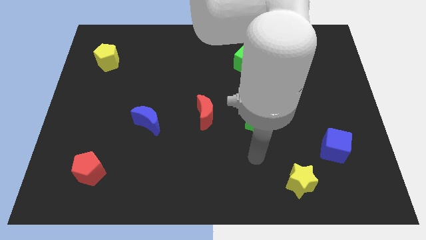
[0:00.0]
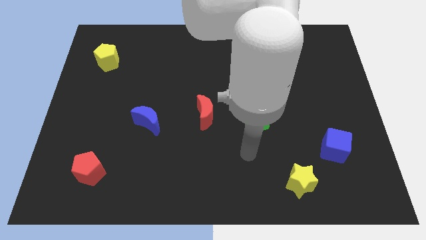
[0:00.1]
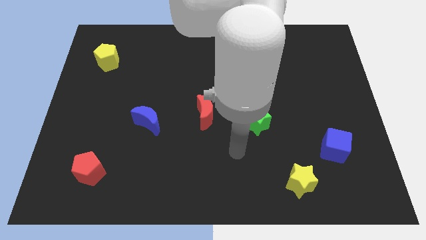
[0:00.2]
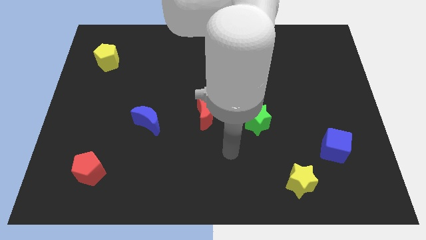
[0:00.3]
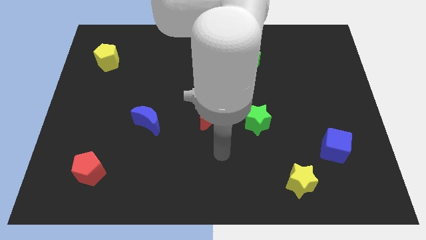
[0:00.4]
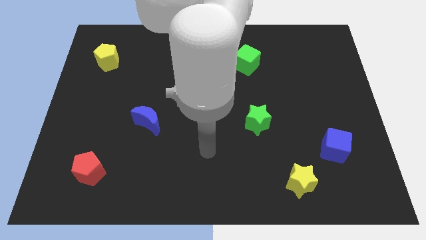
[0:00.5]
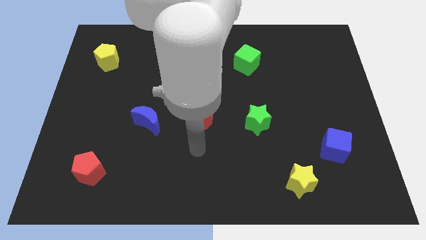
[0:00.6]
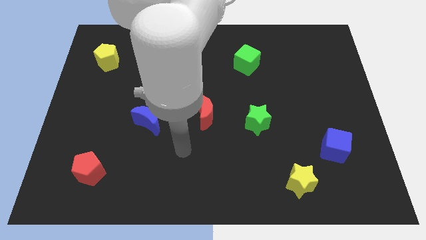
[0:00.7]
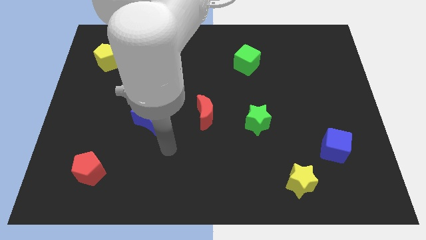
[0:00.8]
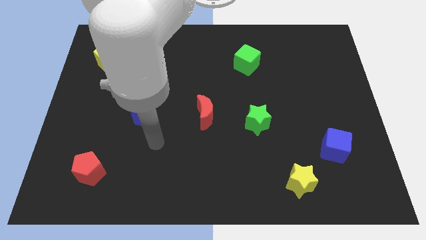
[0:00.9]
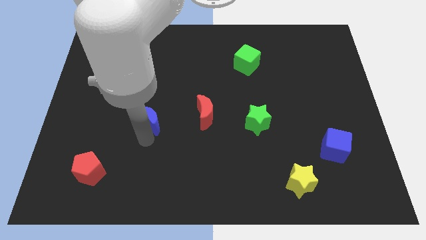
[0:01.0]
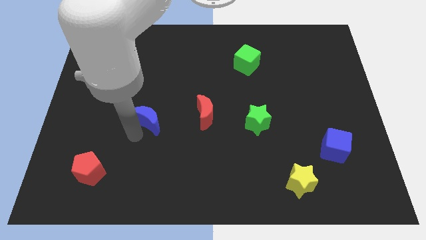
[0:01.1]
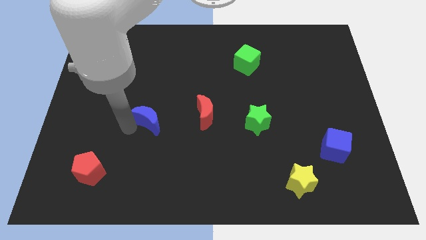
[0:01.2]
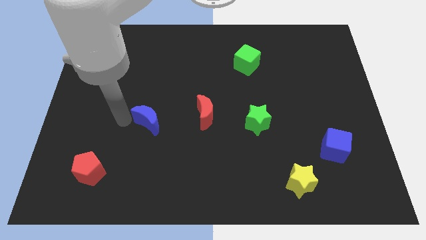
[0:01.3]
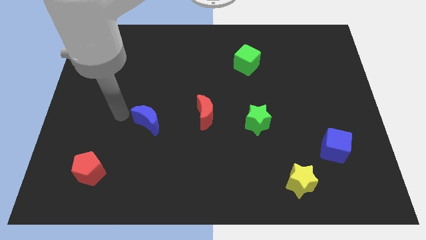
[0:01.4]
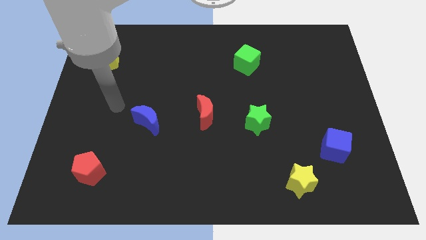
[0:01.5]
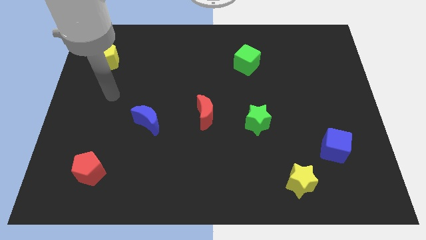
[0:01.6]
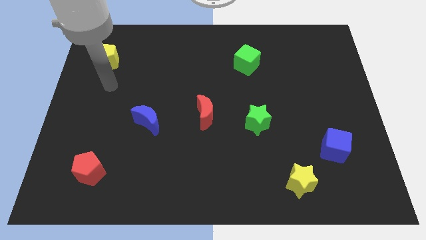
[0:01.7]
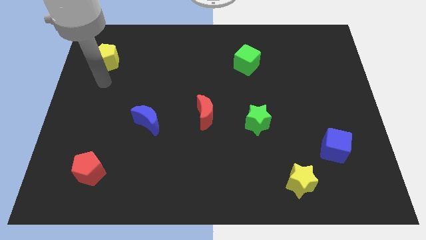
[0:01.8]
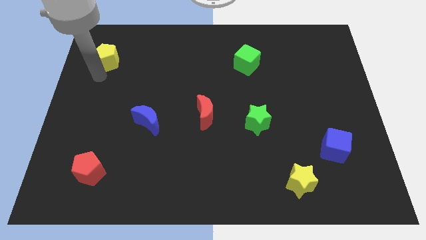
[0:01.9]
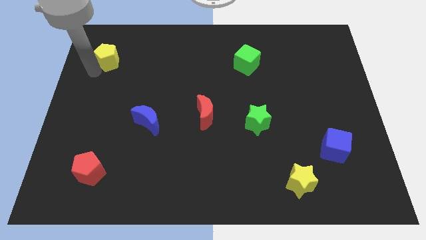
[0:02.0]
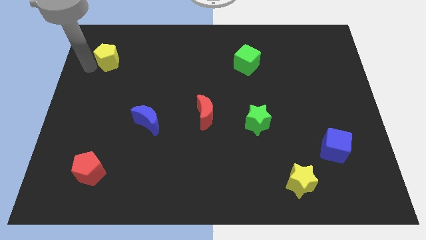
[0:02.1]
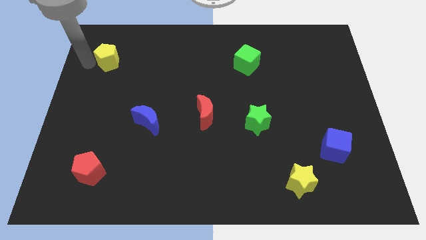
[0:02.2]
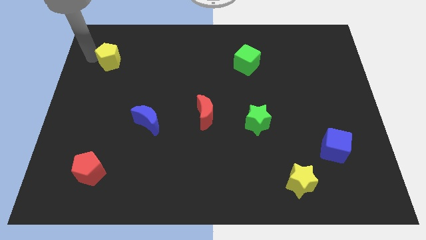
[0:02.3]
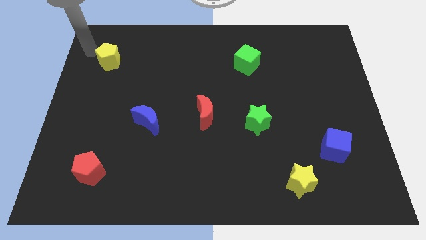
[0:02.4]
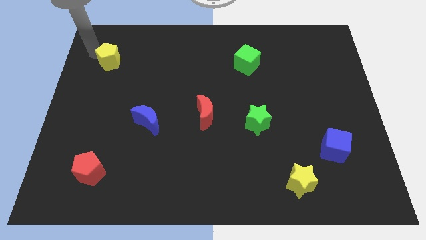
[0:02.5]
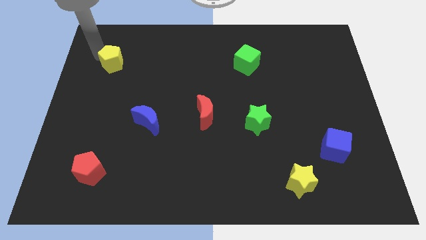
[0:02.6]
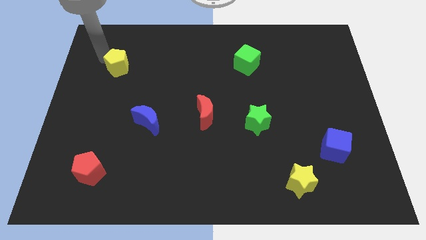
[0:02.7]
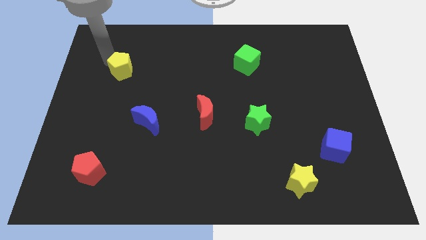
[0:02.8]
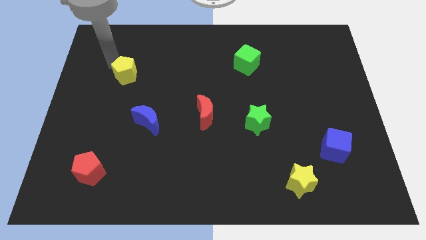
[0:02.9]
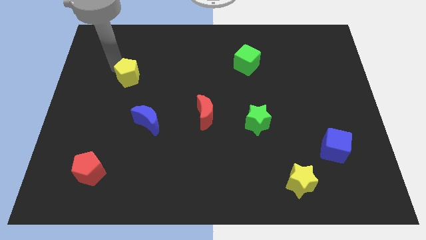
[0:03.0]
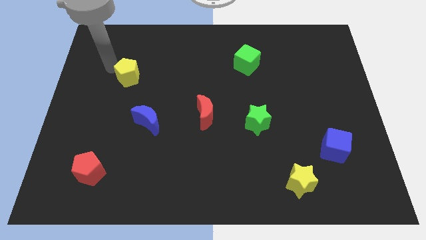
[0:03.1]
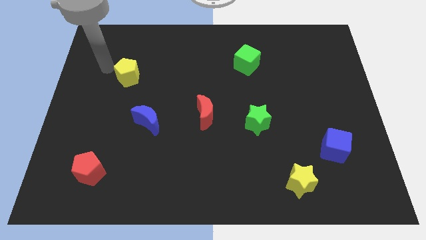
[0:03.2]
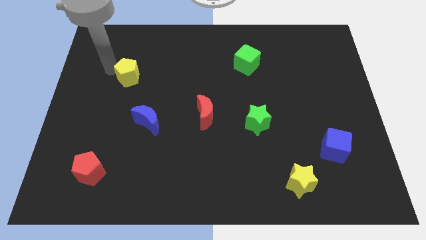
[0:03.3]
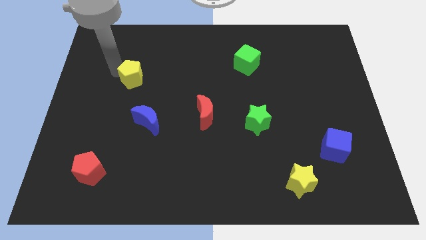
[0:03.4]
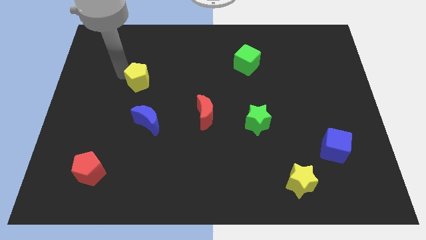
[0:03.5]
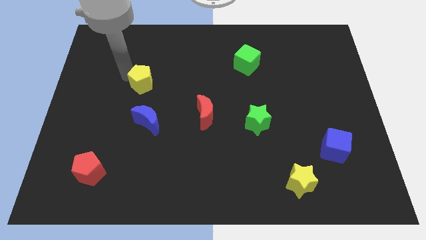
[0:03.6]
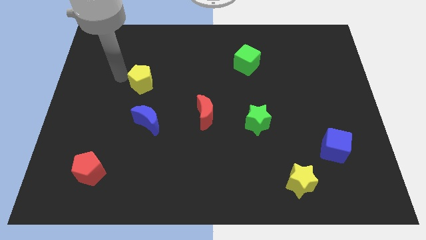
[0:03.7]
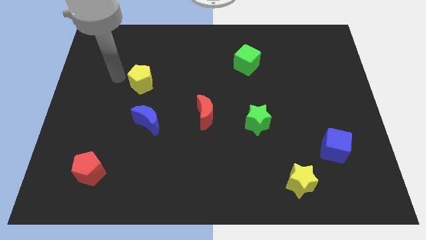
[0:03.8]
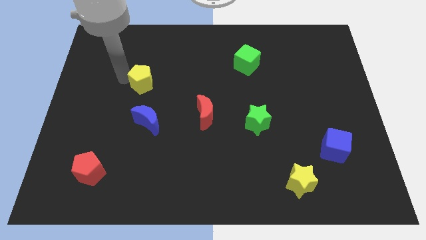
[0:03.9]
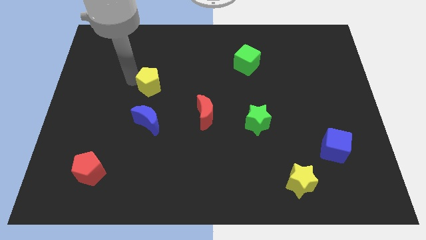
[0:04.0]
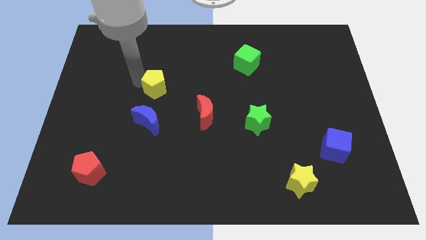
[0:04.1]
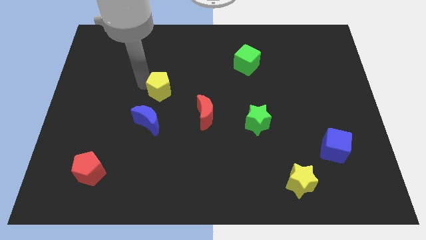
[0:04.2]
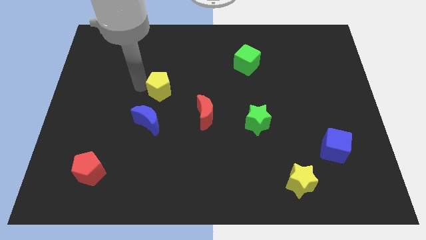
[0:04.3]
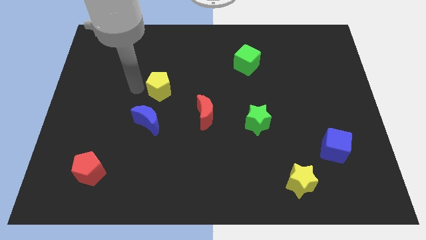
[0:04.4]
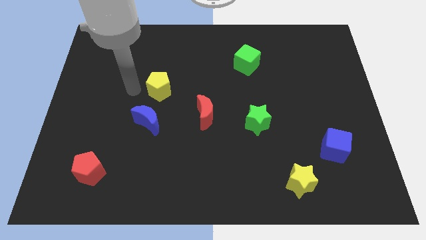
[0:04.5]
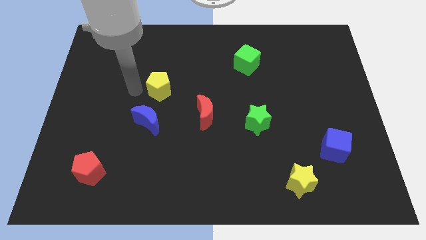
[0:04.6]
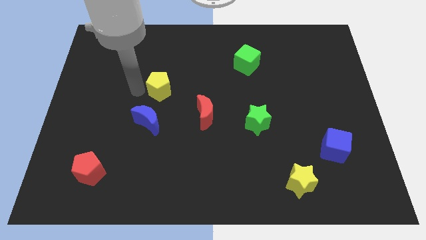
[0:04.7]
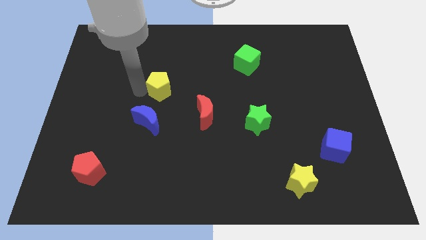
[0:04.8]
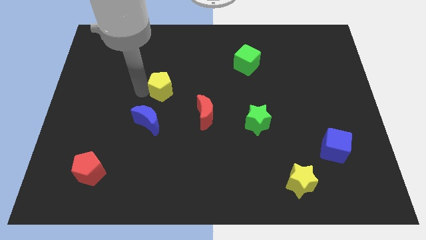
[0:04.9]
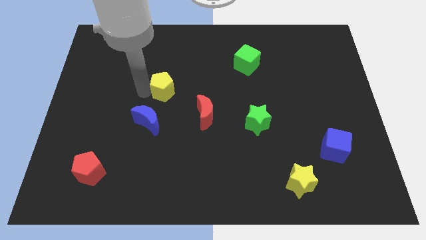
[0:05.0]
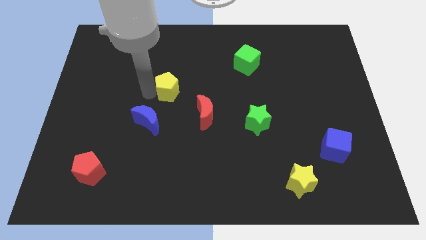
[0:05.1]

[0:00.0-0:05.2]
move the yellow pentagon to the middle

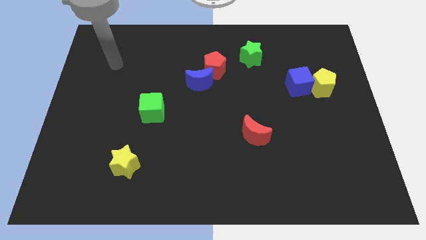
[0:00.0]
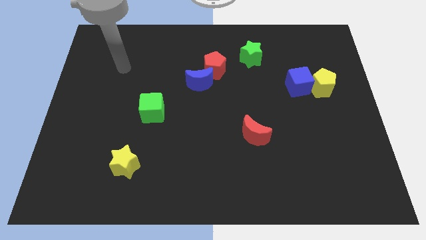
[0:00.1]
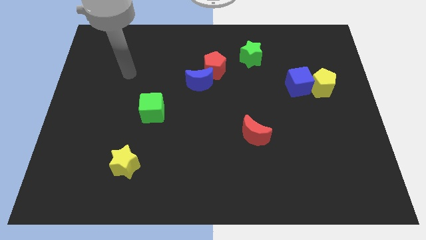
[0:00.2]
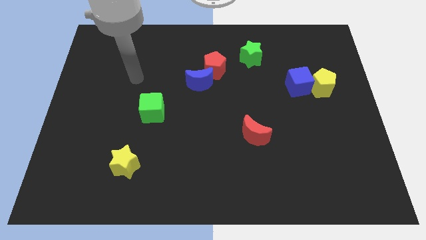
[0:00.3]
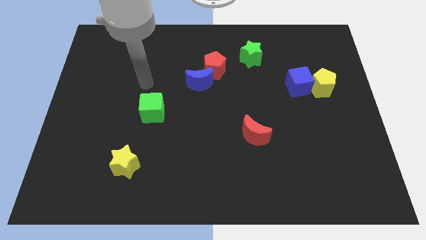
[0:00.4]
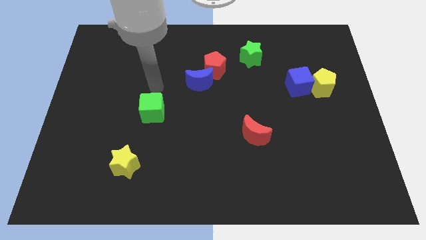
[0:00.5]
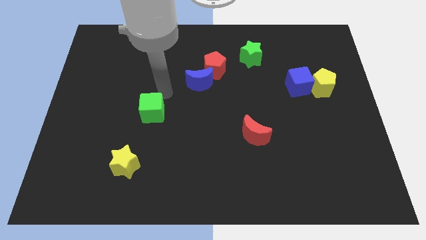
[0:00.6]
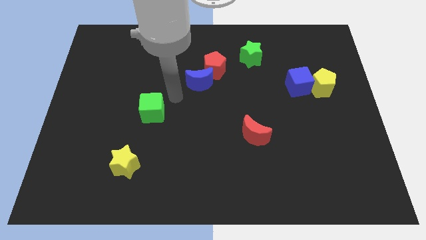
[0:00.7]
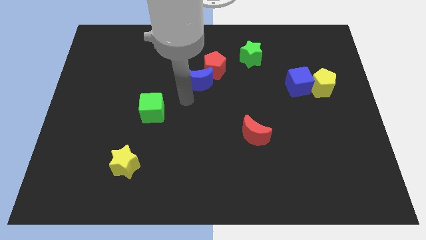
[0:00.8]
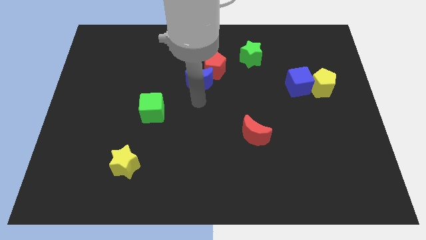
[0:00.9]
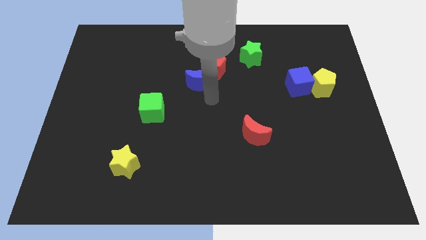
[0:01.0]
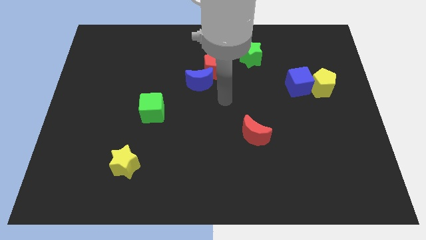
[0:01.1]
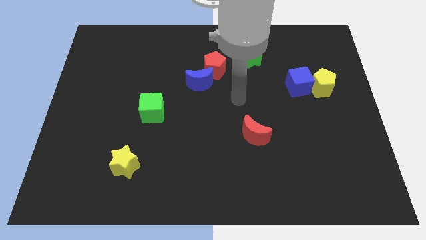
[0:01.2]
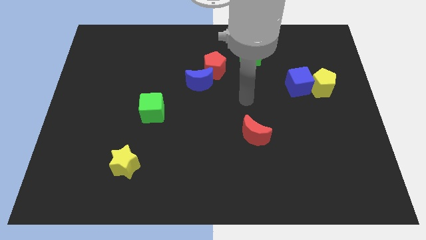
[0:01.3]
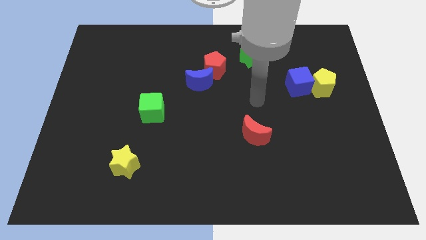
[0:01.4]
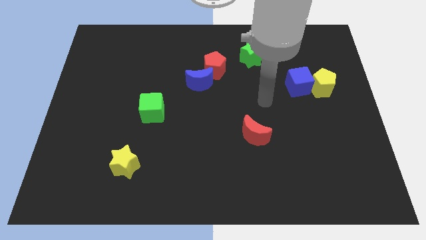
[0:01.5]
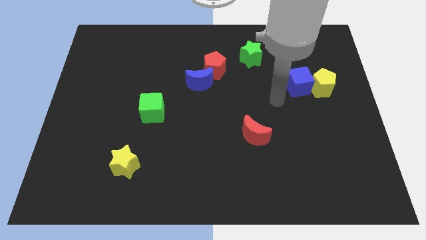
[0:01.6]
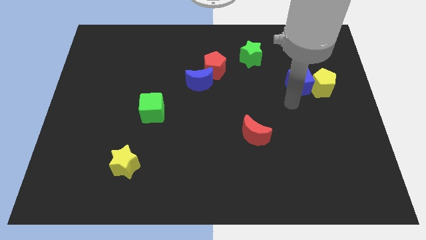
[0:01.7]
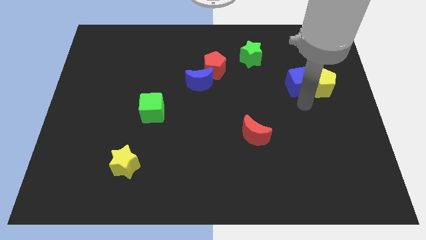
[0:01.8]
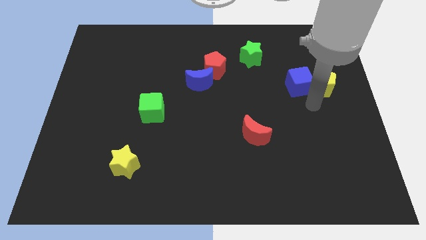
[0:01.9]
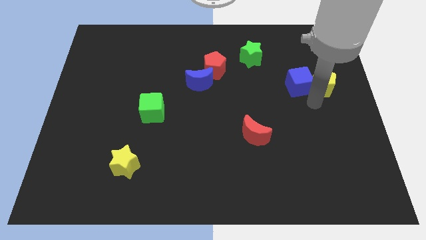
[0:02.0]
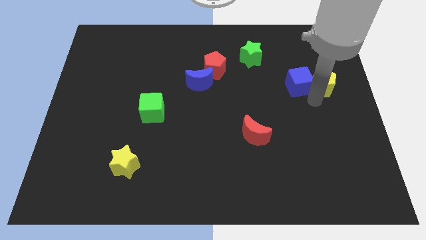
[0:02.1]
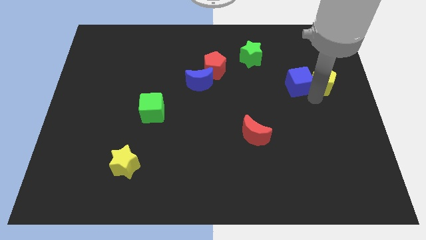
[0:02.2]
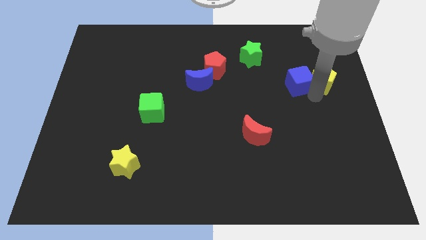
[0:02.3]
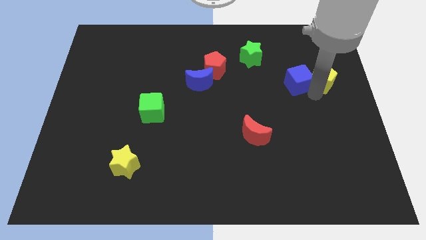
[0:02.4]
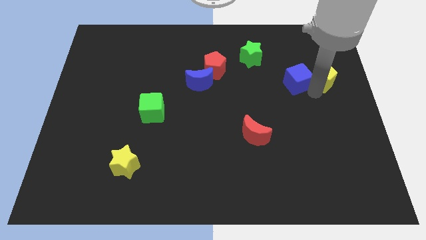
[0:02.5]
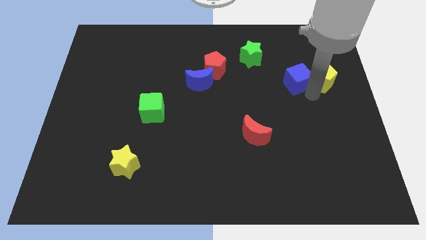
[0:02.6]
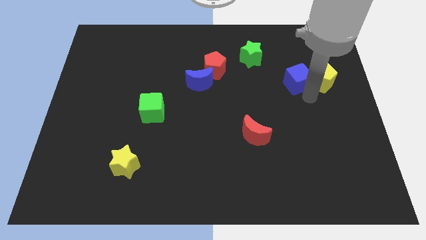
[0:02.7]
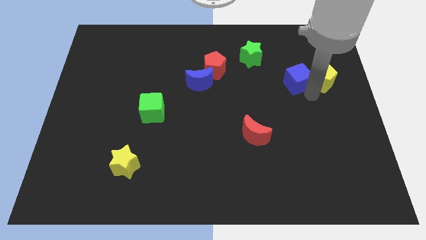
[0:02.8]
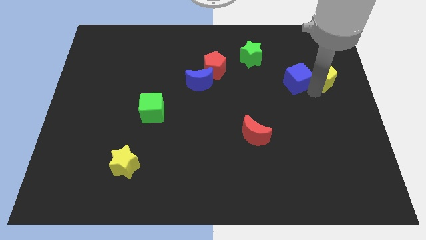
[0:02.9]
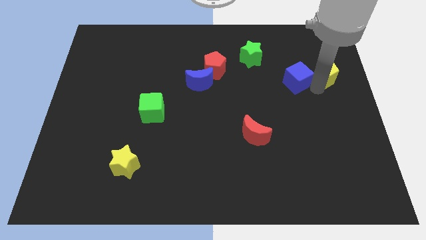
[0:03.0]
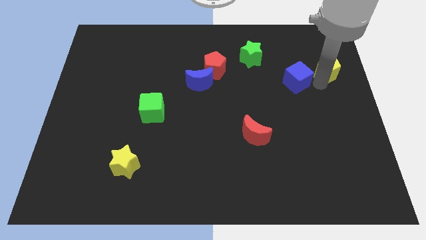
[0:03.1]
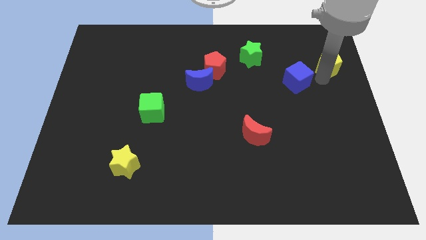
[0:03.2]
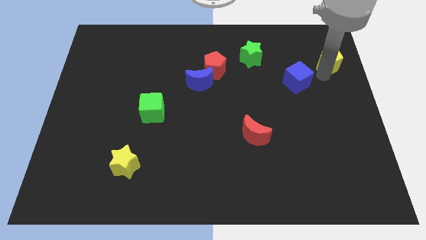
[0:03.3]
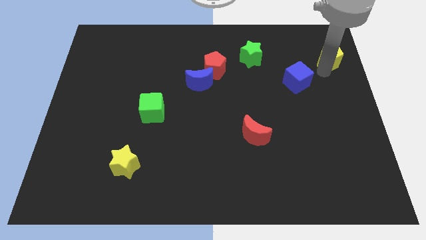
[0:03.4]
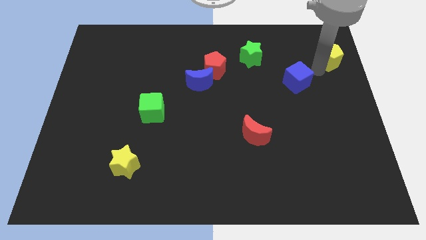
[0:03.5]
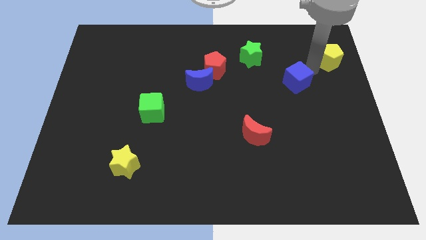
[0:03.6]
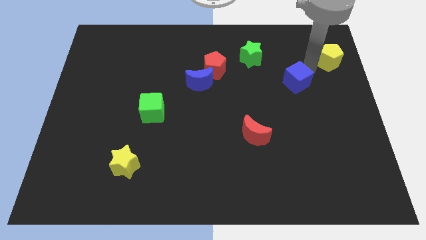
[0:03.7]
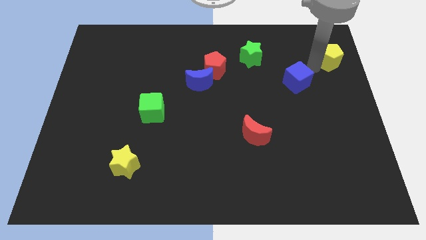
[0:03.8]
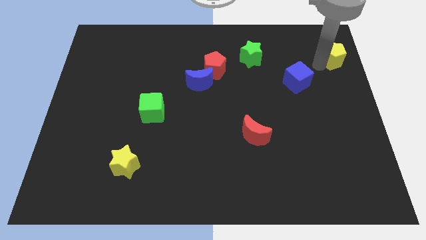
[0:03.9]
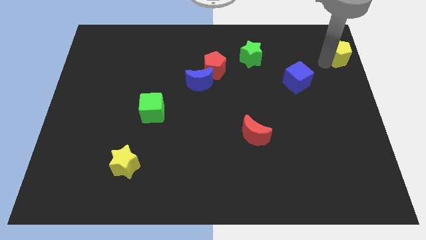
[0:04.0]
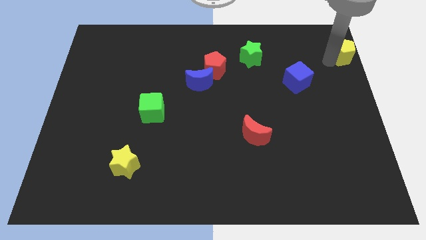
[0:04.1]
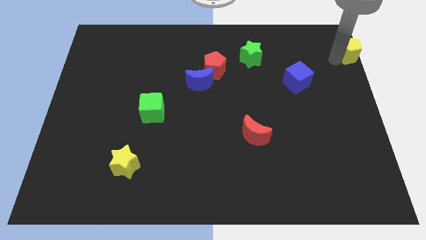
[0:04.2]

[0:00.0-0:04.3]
move the yellow pentagon to the top right
